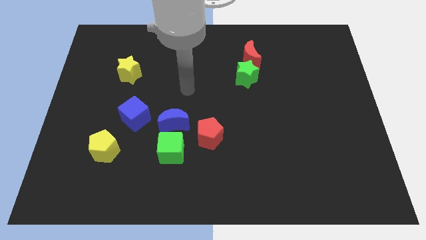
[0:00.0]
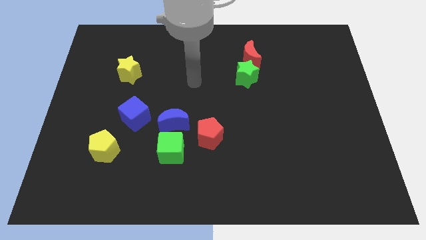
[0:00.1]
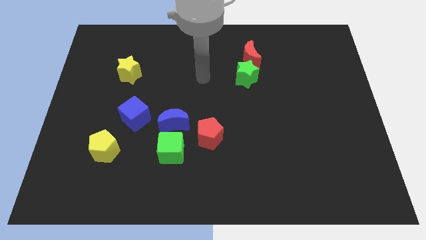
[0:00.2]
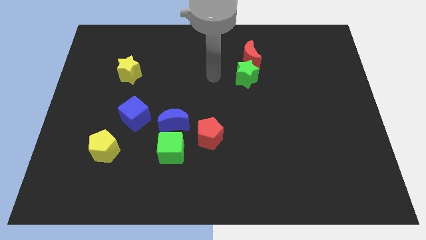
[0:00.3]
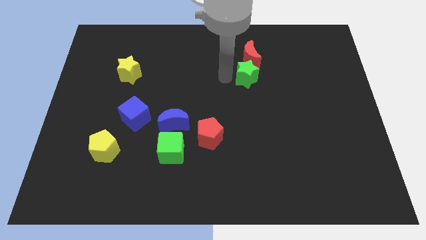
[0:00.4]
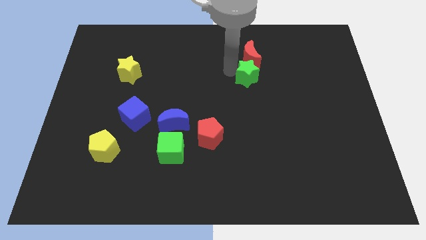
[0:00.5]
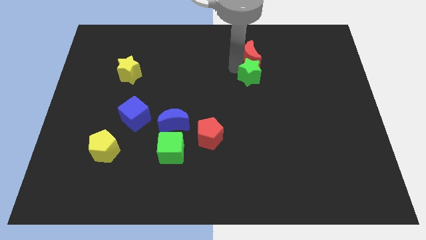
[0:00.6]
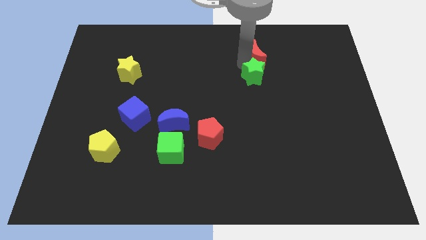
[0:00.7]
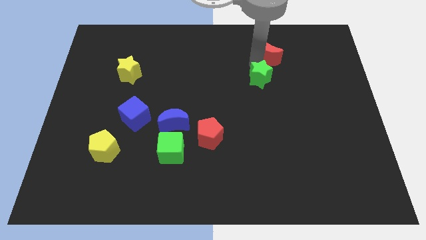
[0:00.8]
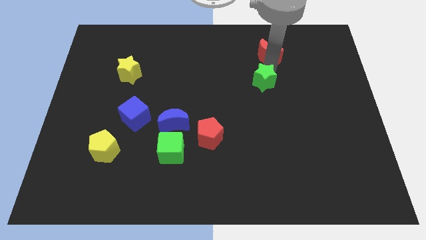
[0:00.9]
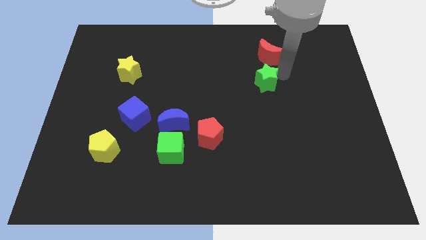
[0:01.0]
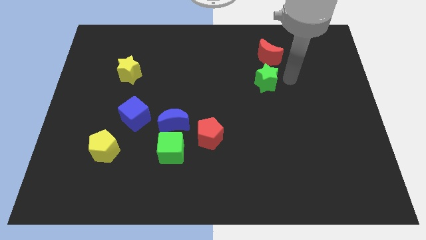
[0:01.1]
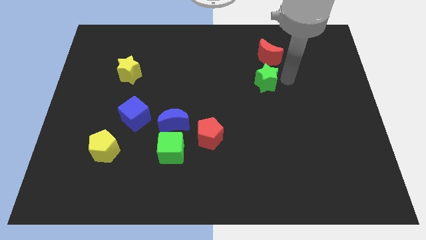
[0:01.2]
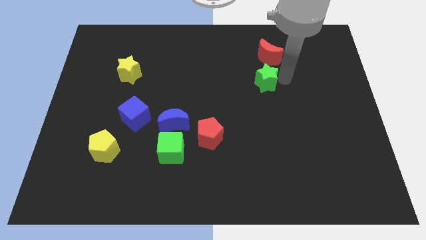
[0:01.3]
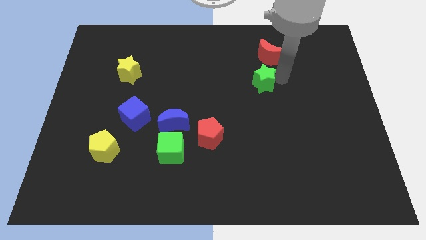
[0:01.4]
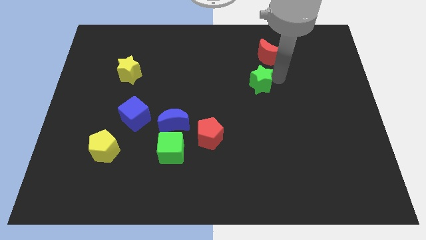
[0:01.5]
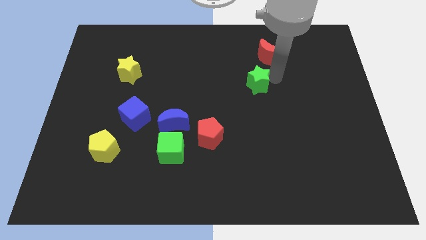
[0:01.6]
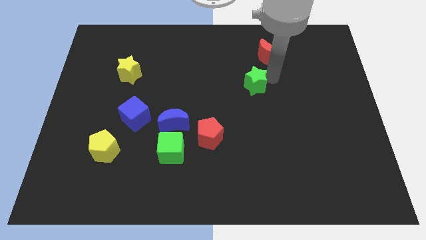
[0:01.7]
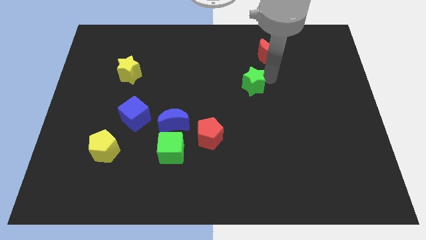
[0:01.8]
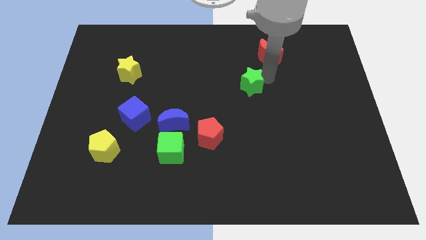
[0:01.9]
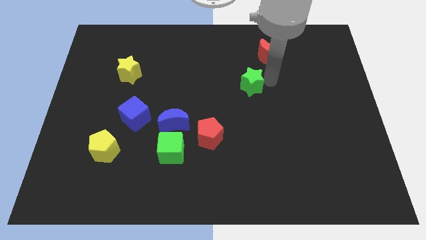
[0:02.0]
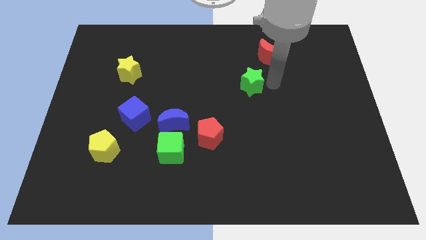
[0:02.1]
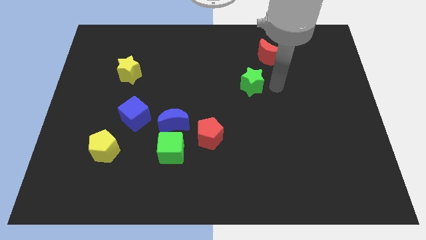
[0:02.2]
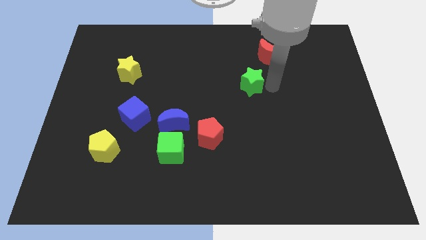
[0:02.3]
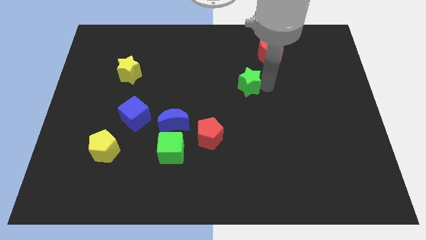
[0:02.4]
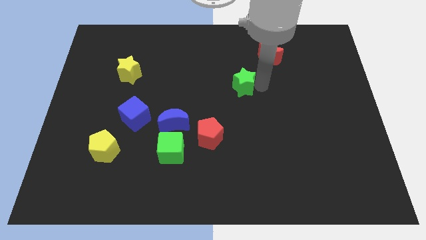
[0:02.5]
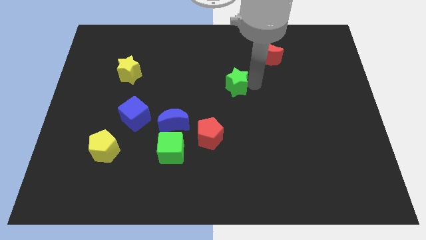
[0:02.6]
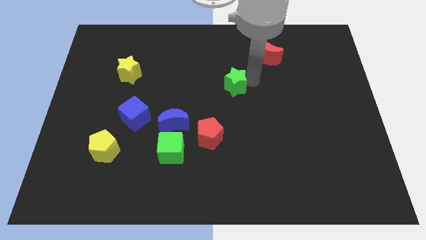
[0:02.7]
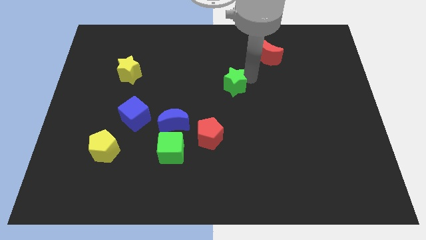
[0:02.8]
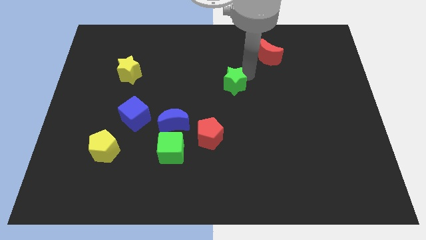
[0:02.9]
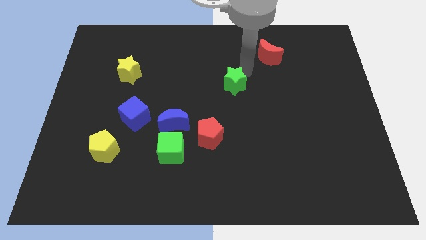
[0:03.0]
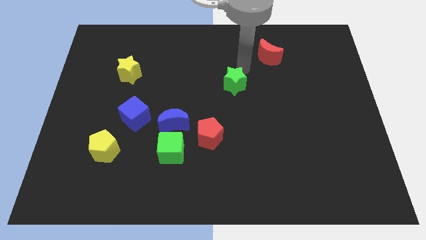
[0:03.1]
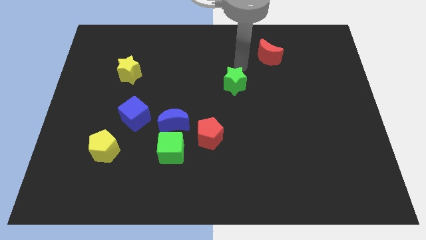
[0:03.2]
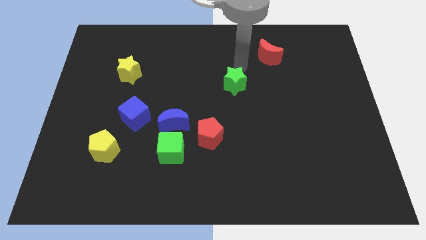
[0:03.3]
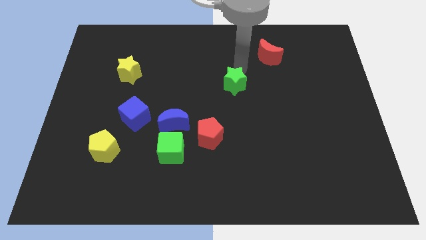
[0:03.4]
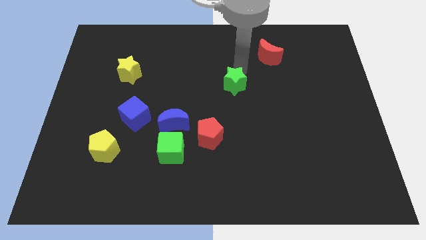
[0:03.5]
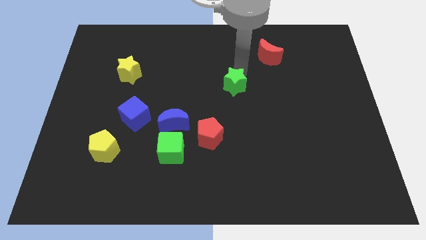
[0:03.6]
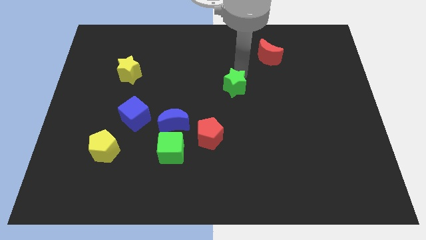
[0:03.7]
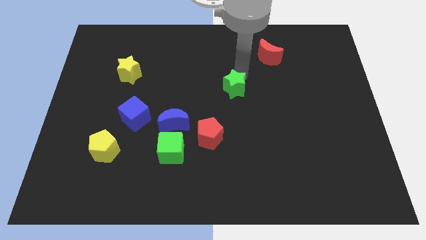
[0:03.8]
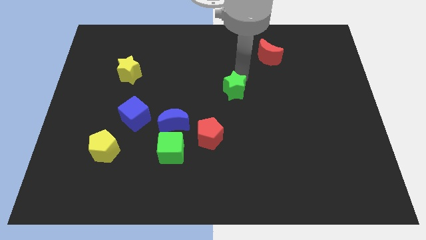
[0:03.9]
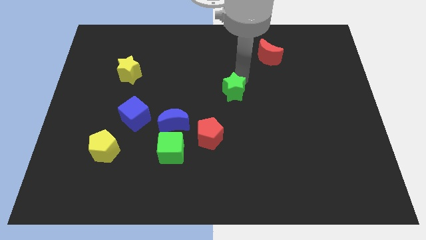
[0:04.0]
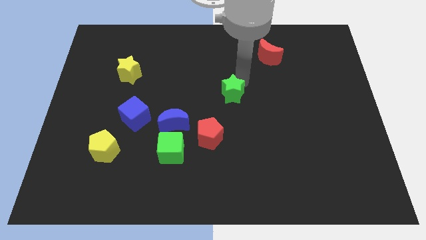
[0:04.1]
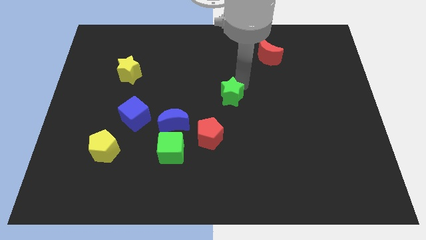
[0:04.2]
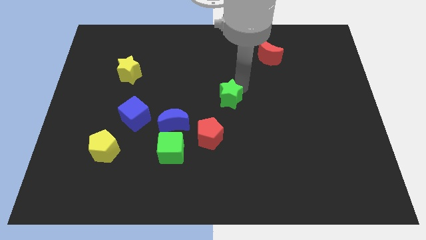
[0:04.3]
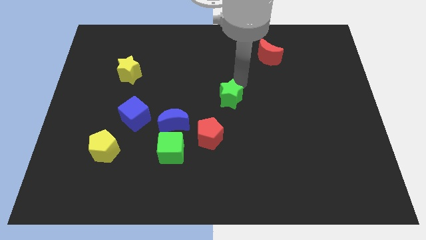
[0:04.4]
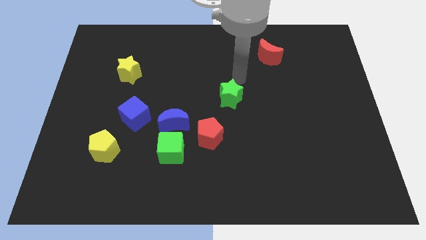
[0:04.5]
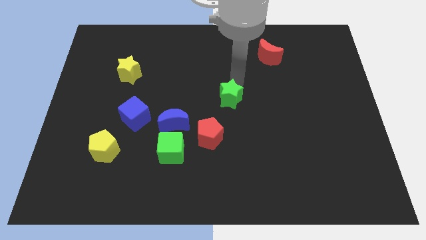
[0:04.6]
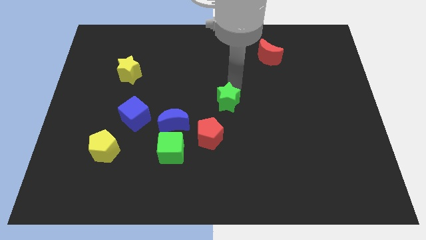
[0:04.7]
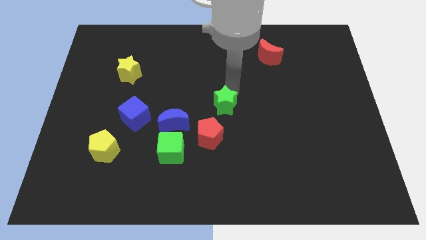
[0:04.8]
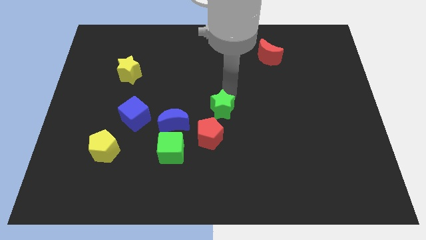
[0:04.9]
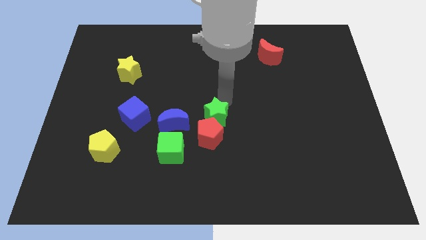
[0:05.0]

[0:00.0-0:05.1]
put the green star next to the red pentagon

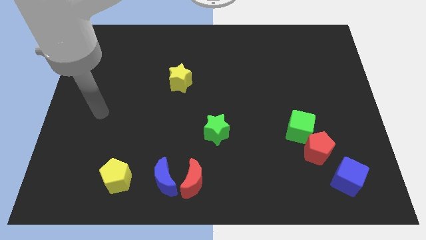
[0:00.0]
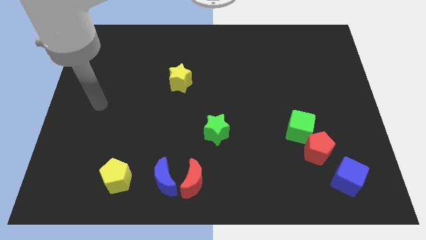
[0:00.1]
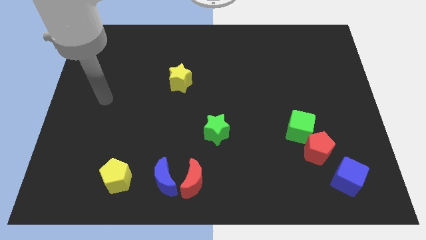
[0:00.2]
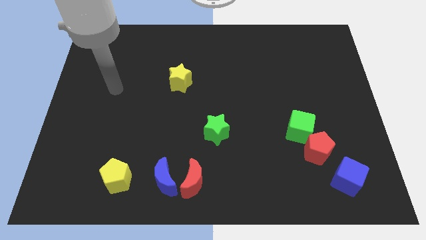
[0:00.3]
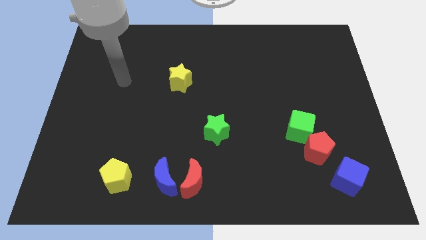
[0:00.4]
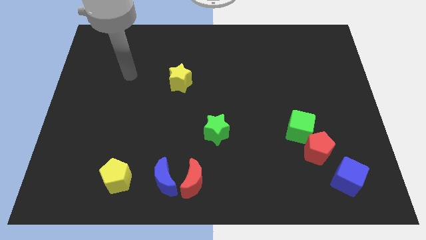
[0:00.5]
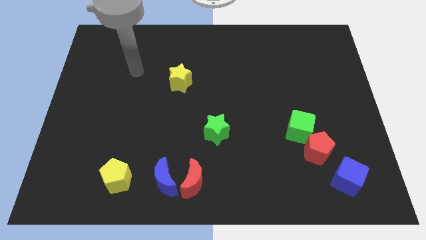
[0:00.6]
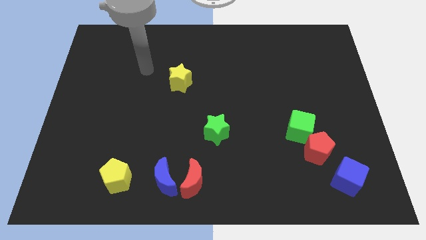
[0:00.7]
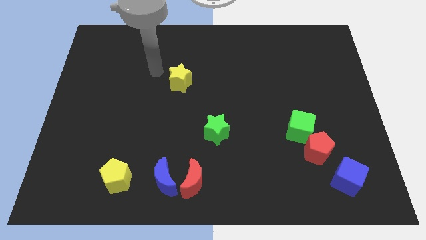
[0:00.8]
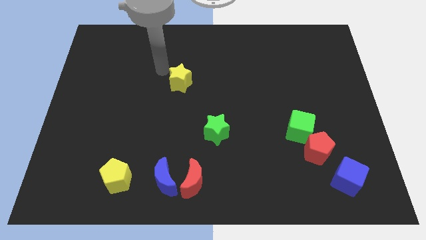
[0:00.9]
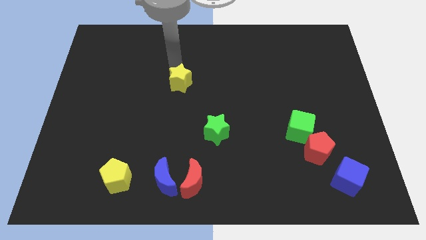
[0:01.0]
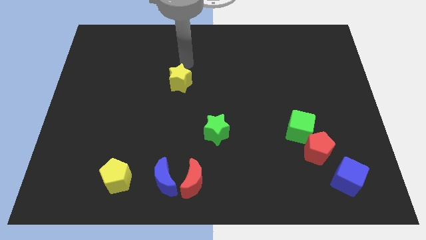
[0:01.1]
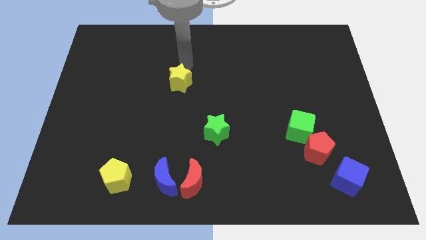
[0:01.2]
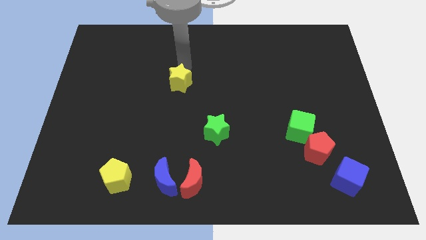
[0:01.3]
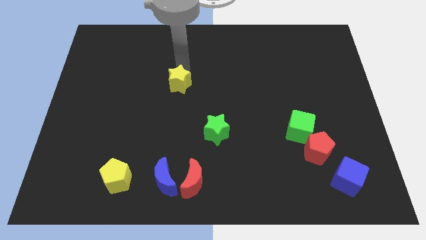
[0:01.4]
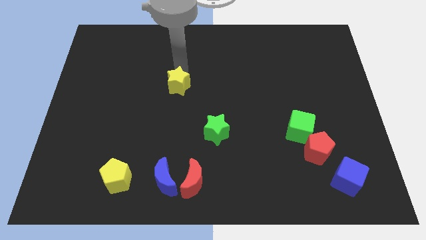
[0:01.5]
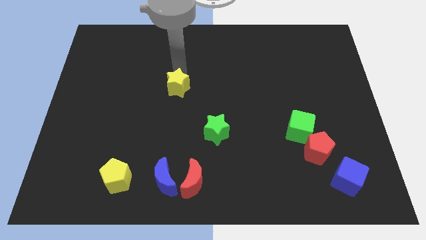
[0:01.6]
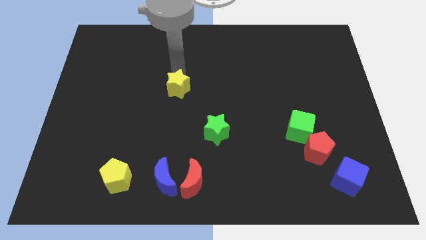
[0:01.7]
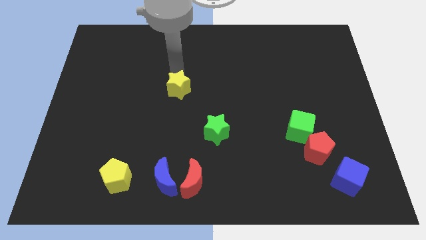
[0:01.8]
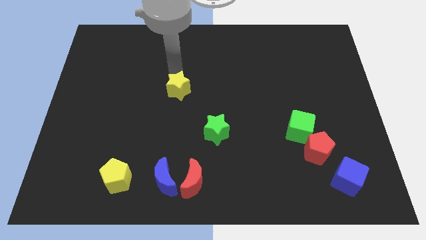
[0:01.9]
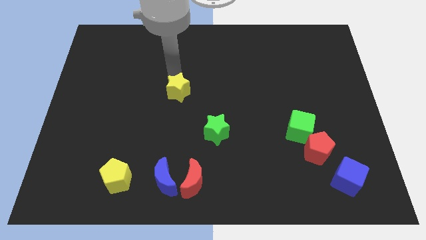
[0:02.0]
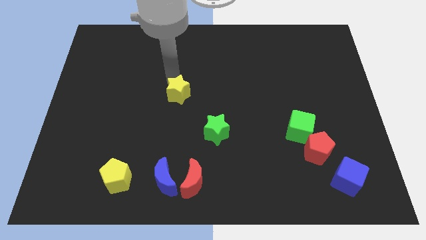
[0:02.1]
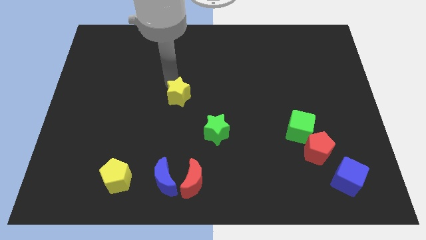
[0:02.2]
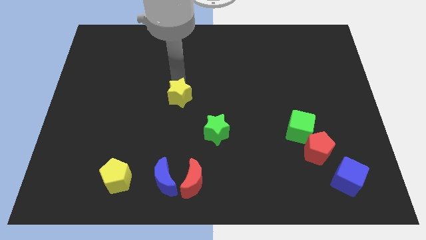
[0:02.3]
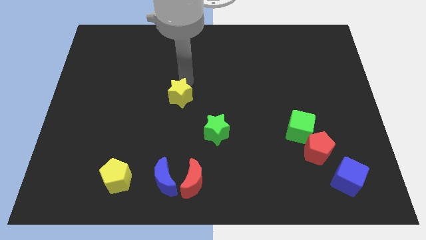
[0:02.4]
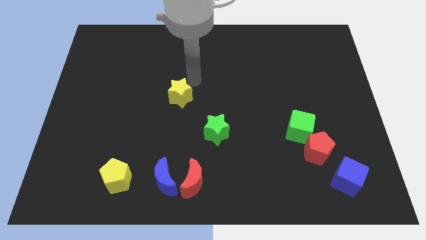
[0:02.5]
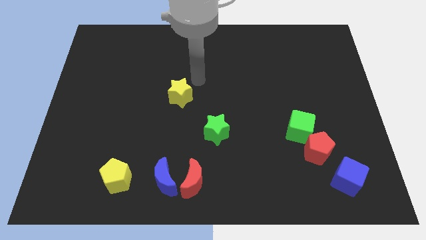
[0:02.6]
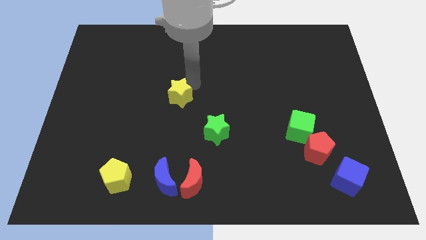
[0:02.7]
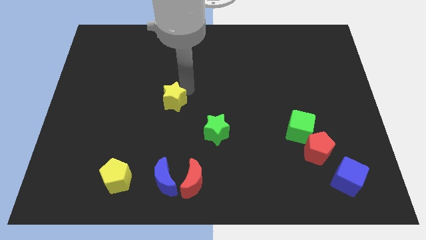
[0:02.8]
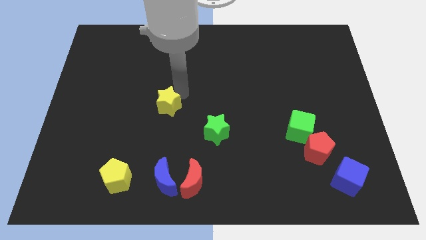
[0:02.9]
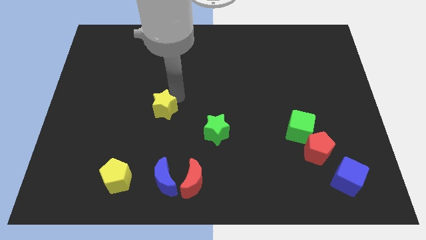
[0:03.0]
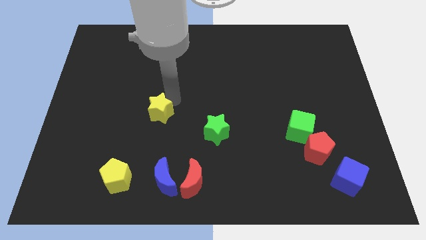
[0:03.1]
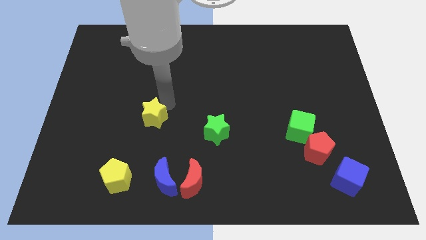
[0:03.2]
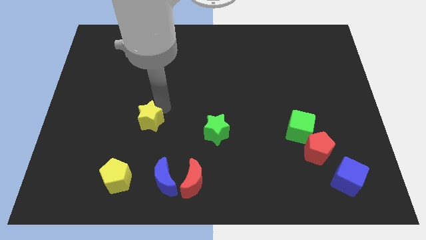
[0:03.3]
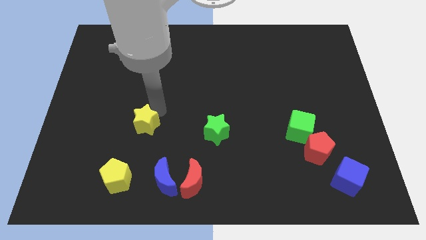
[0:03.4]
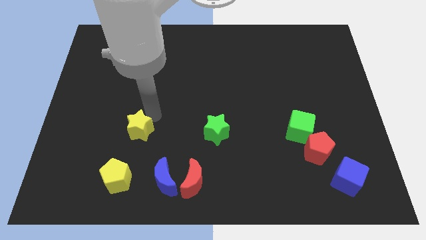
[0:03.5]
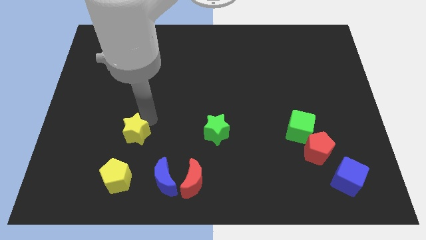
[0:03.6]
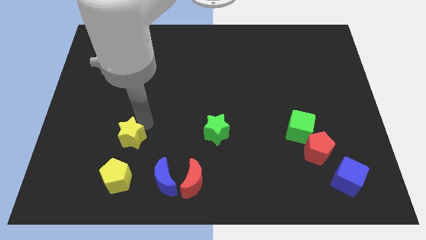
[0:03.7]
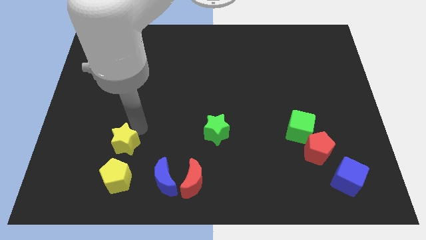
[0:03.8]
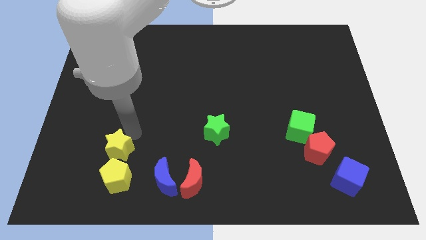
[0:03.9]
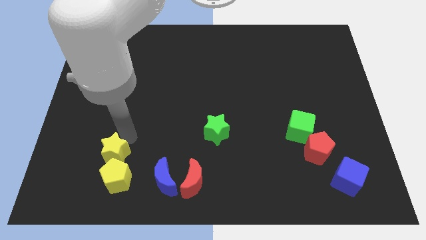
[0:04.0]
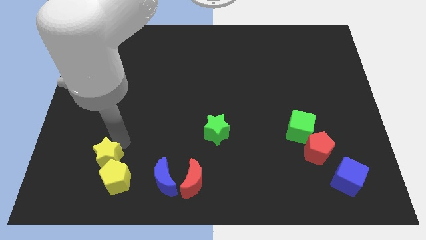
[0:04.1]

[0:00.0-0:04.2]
put the yellow star to the yellow pentagon
